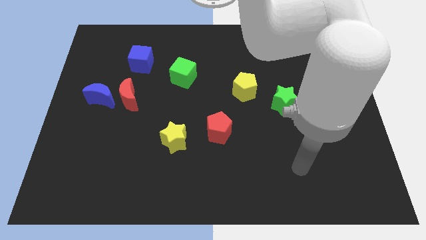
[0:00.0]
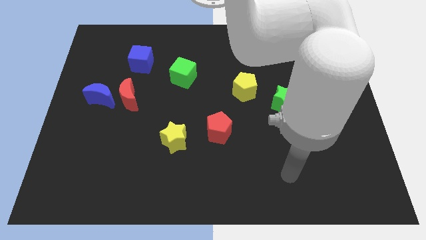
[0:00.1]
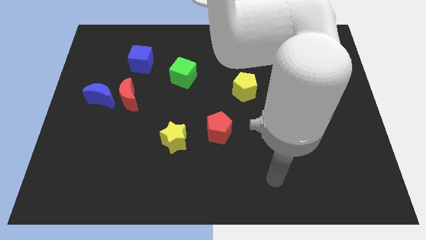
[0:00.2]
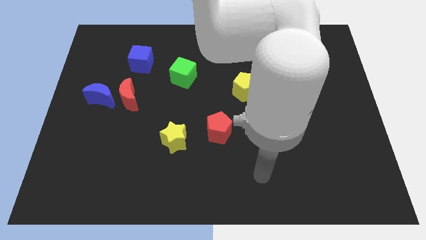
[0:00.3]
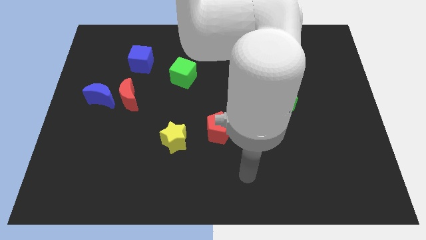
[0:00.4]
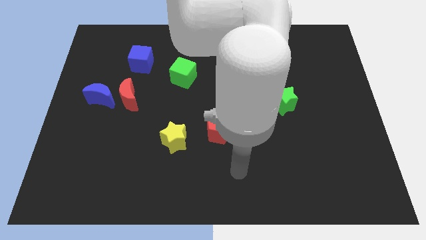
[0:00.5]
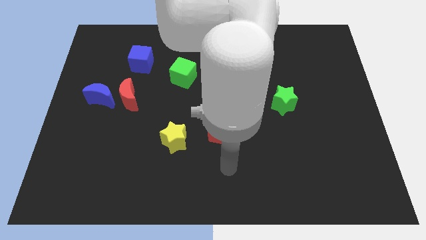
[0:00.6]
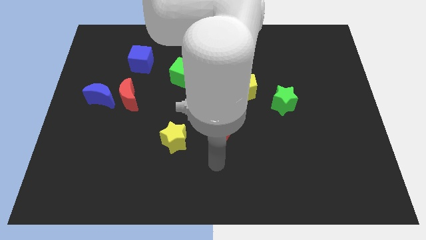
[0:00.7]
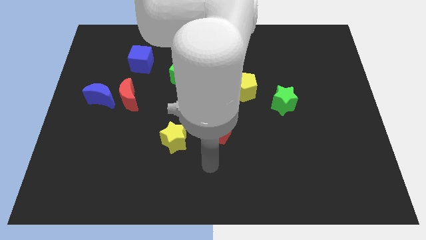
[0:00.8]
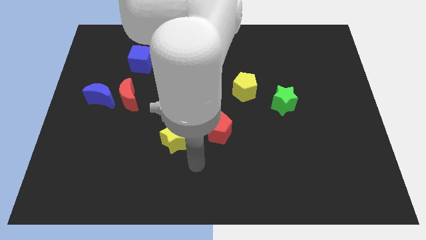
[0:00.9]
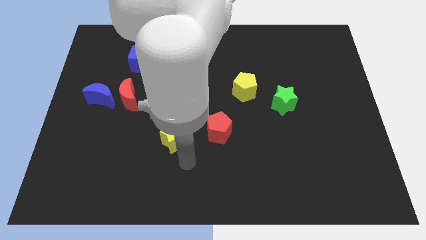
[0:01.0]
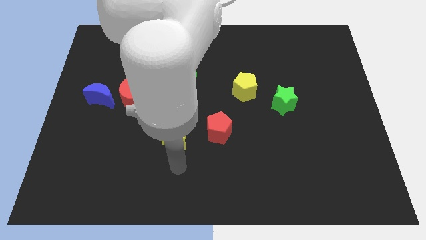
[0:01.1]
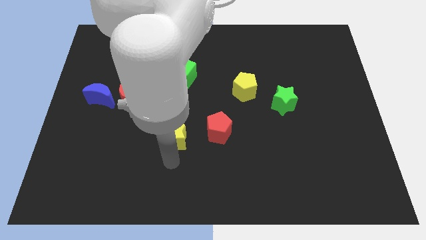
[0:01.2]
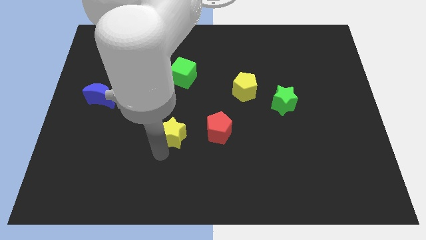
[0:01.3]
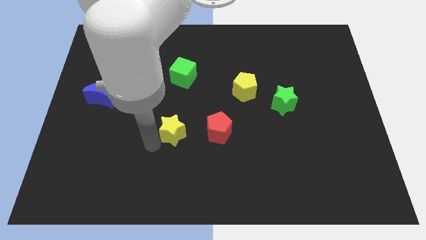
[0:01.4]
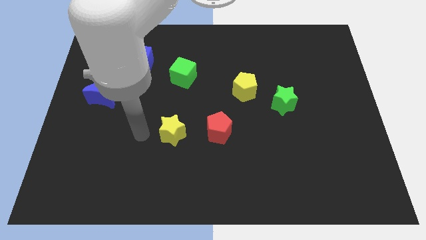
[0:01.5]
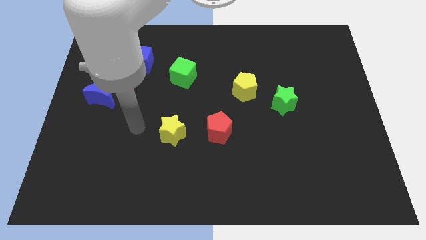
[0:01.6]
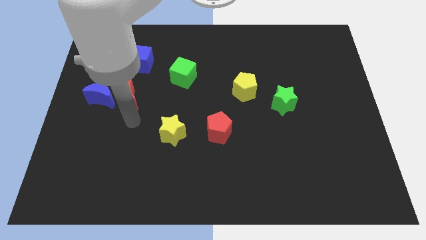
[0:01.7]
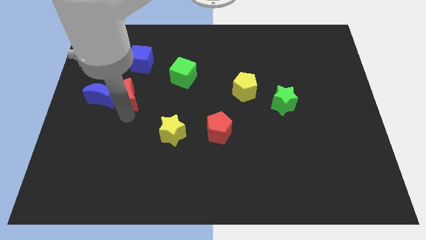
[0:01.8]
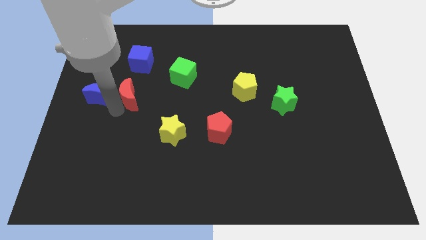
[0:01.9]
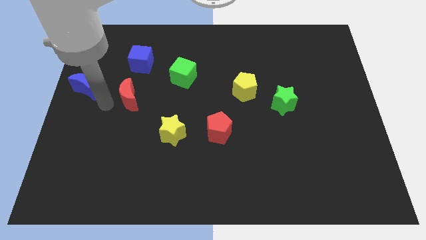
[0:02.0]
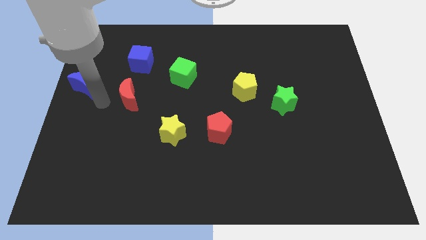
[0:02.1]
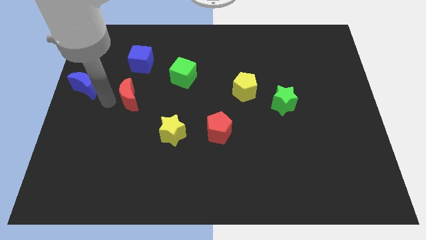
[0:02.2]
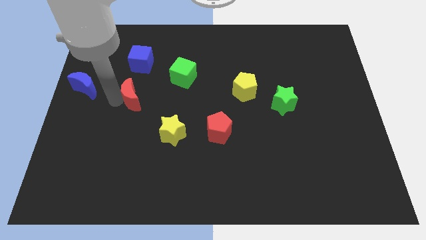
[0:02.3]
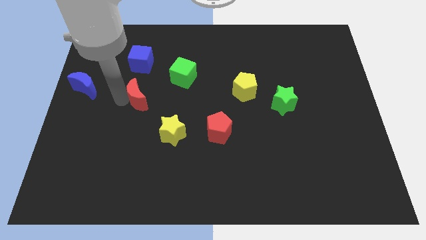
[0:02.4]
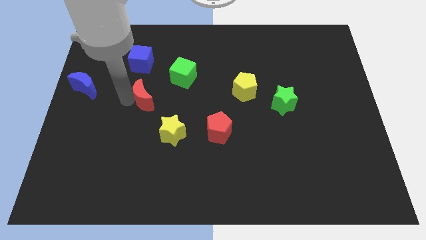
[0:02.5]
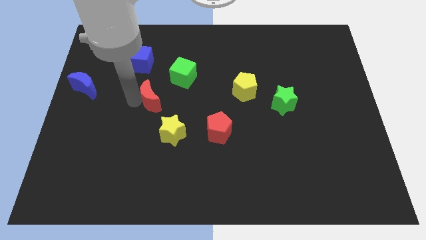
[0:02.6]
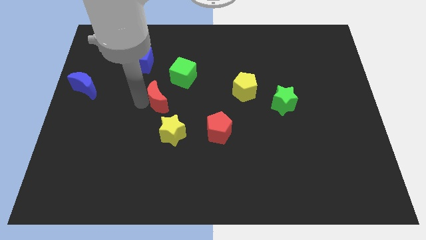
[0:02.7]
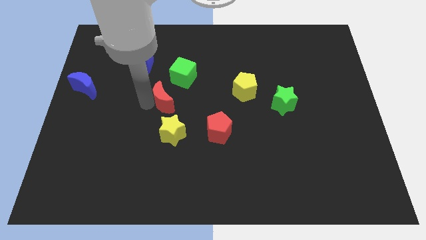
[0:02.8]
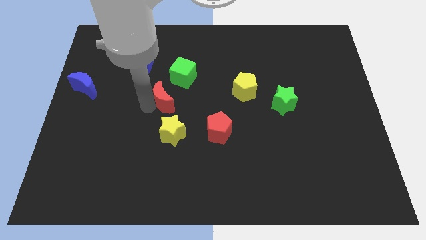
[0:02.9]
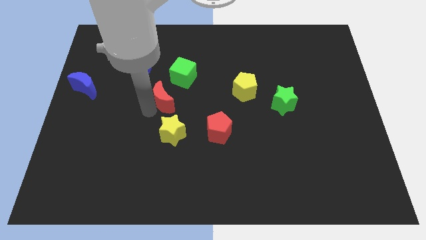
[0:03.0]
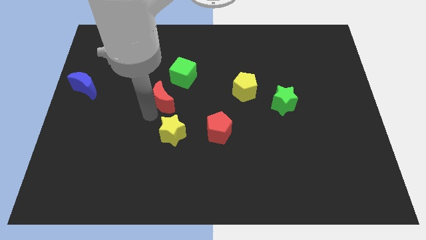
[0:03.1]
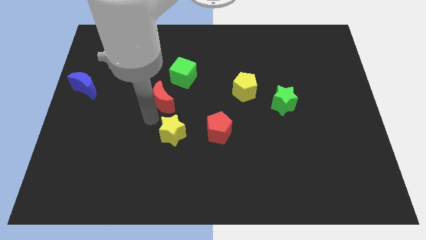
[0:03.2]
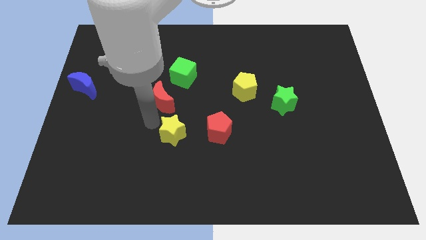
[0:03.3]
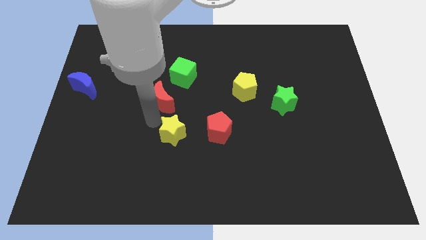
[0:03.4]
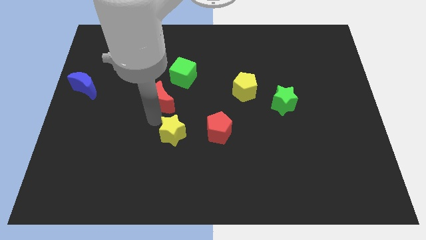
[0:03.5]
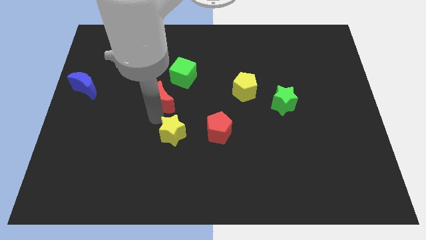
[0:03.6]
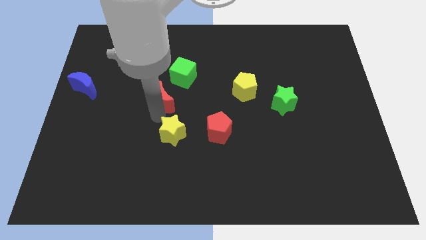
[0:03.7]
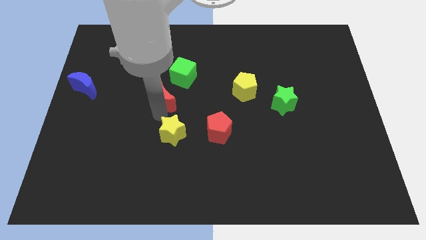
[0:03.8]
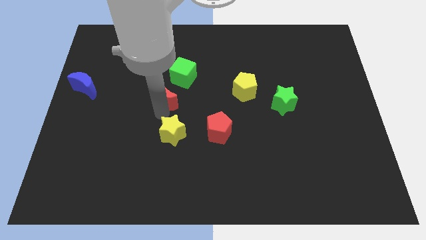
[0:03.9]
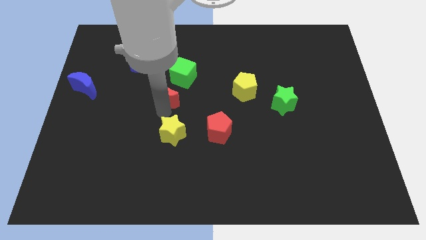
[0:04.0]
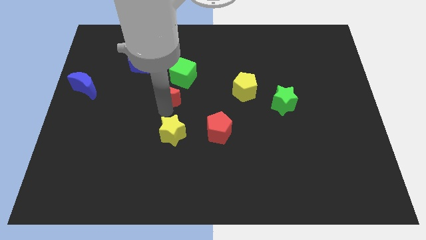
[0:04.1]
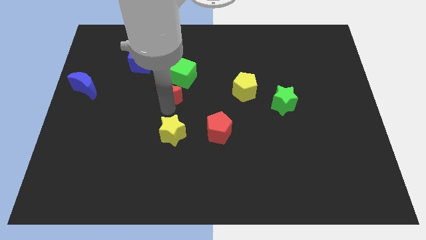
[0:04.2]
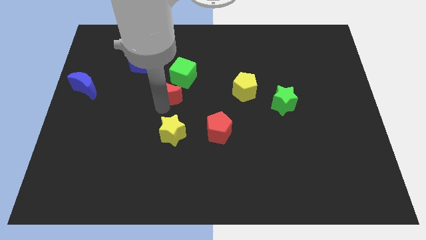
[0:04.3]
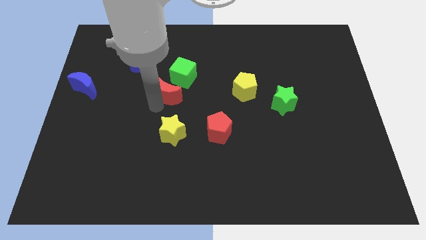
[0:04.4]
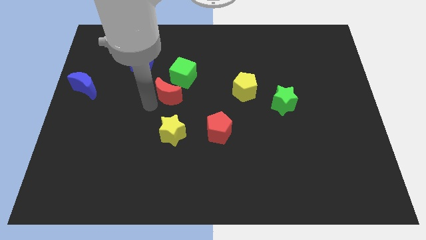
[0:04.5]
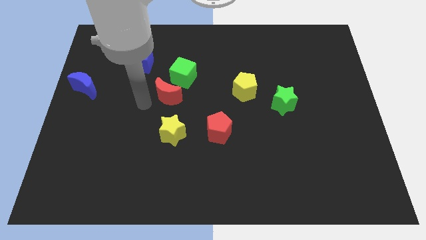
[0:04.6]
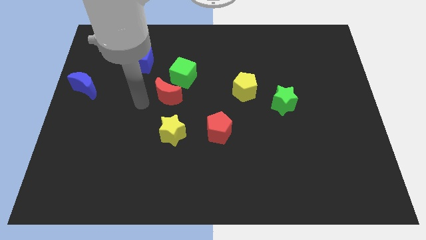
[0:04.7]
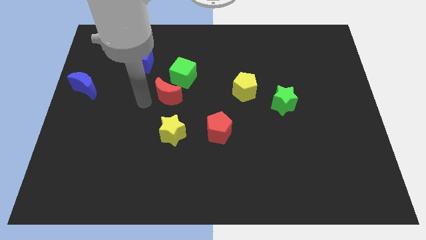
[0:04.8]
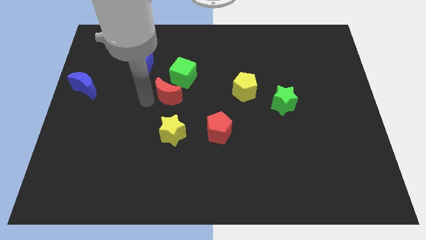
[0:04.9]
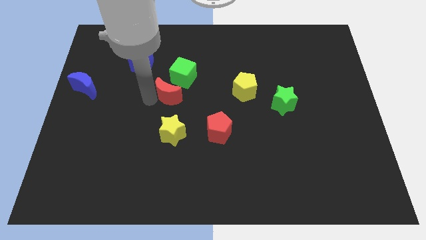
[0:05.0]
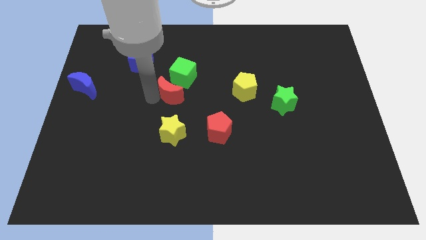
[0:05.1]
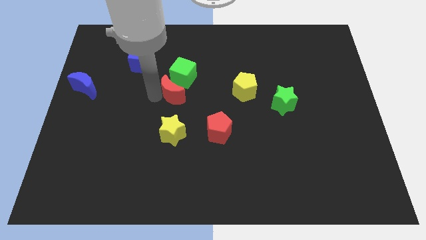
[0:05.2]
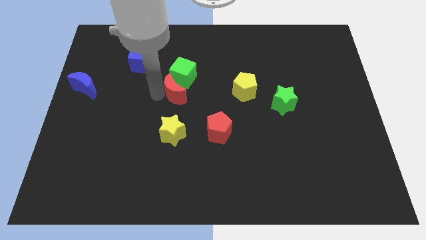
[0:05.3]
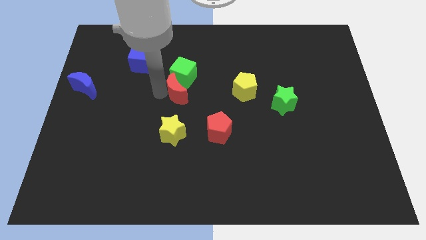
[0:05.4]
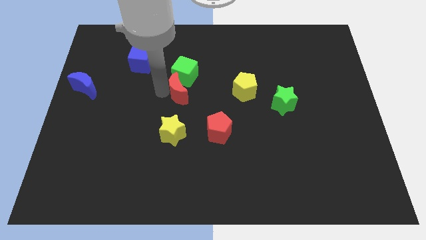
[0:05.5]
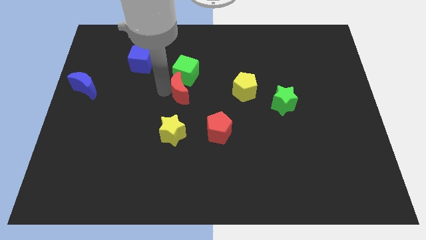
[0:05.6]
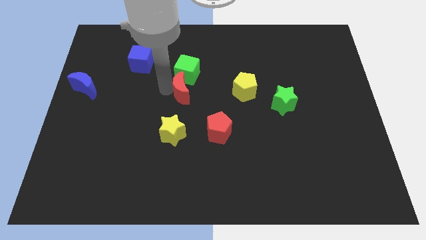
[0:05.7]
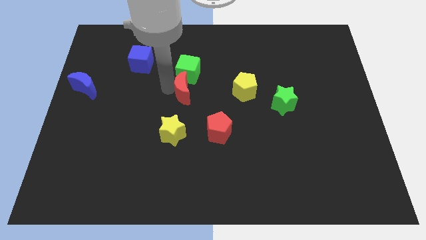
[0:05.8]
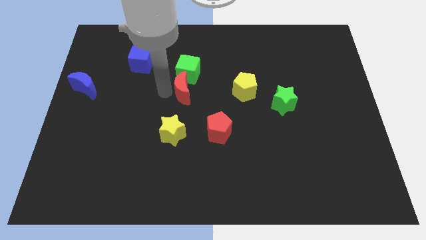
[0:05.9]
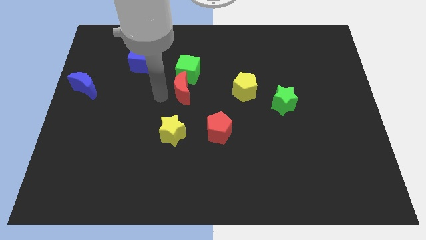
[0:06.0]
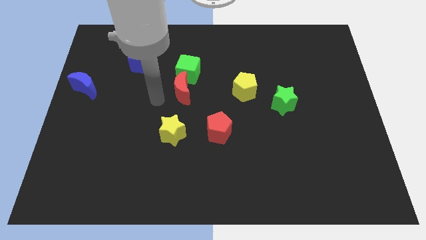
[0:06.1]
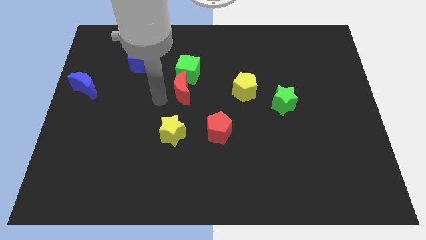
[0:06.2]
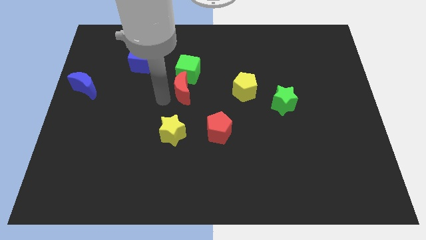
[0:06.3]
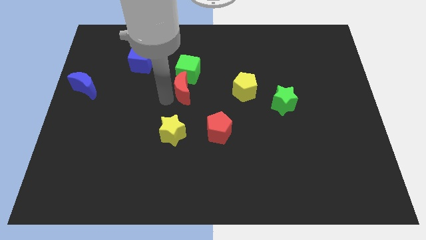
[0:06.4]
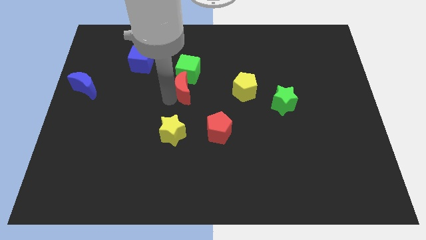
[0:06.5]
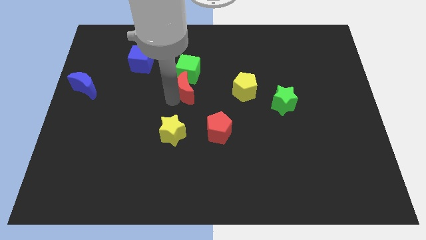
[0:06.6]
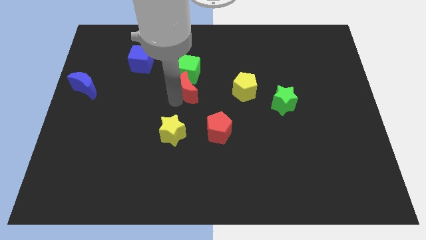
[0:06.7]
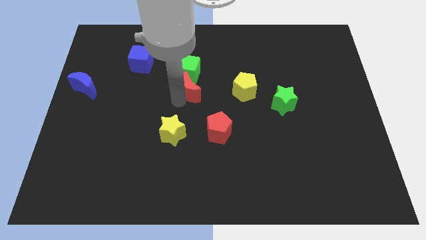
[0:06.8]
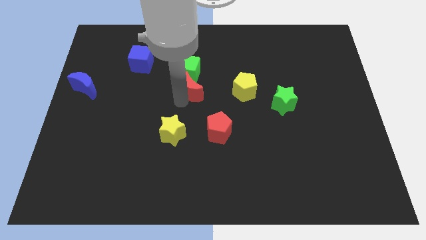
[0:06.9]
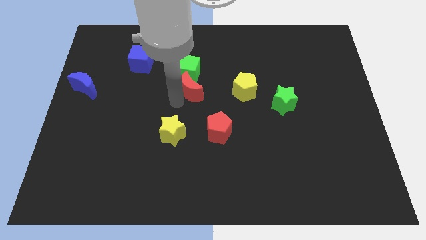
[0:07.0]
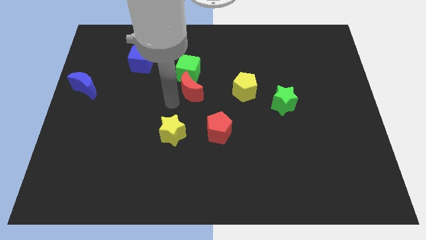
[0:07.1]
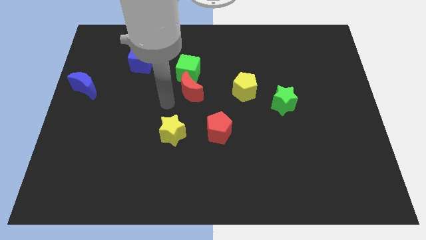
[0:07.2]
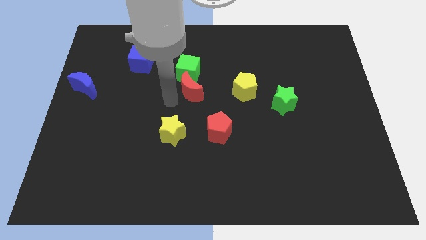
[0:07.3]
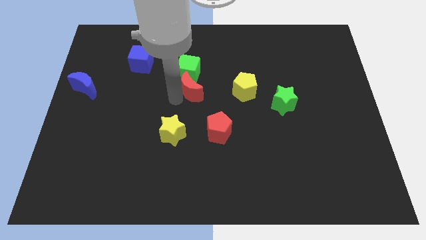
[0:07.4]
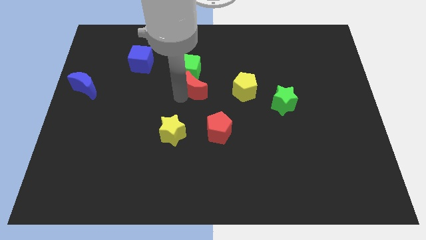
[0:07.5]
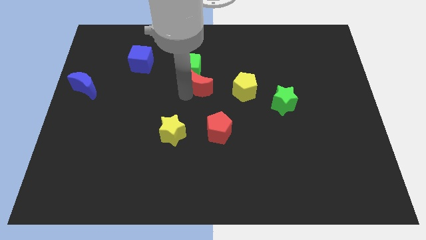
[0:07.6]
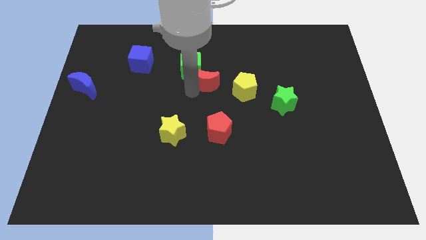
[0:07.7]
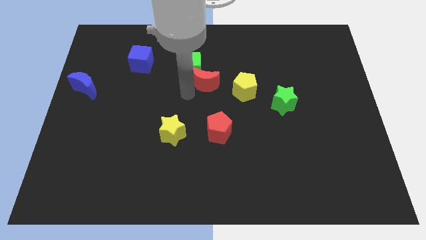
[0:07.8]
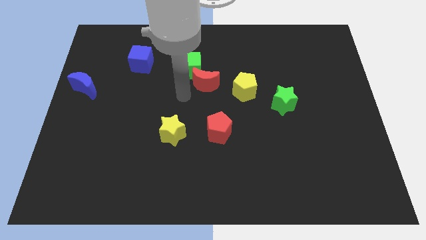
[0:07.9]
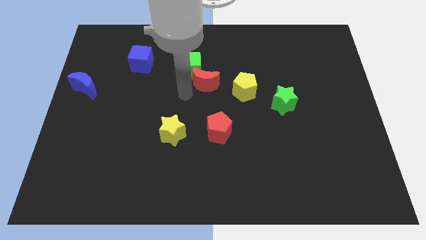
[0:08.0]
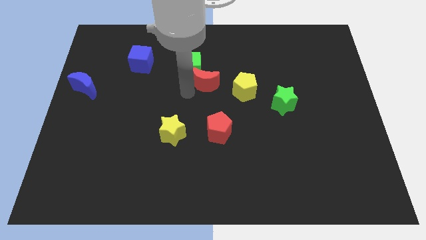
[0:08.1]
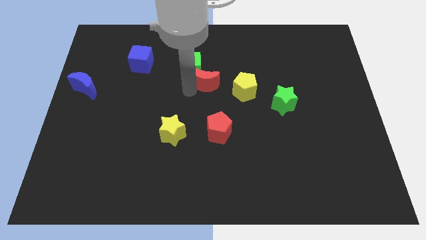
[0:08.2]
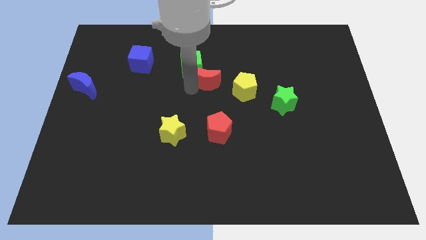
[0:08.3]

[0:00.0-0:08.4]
slide the red moon to the top left of the yellow pentagon
